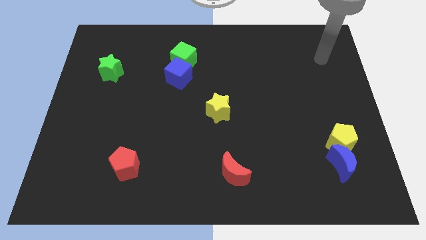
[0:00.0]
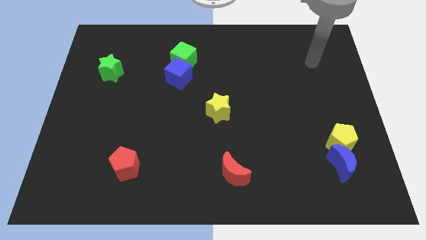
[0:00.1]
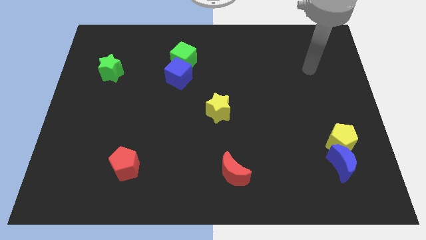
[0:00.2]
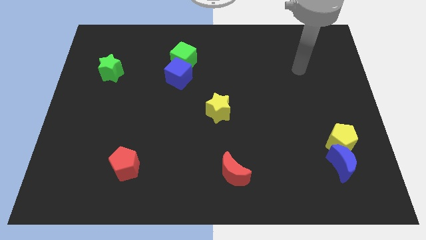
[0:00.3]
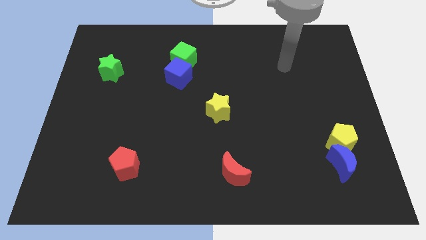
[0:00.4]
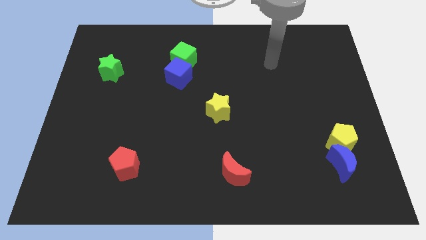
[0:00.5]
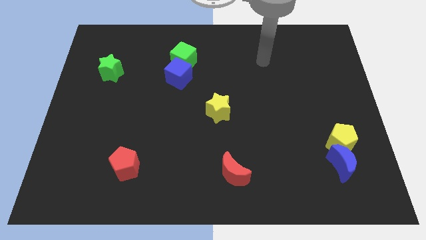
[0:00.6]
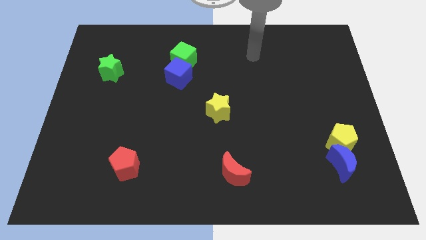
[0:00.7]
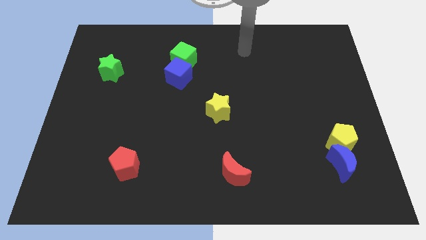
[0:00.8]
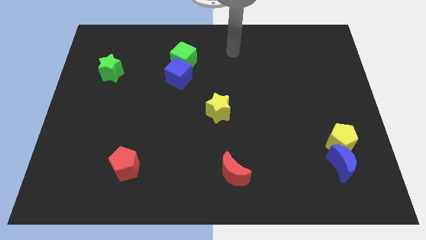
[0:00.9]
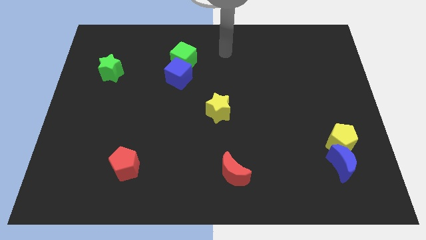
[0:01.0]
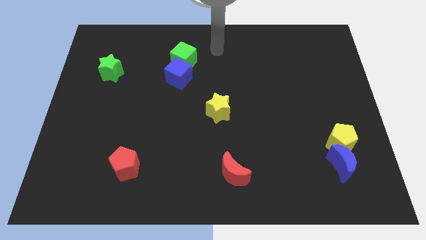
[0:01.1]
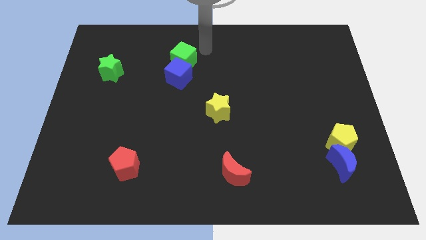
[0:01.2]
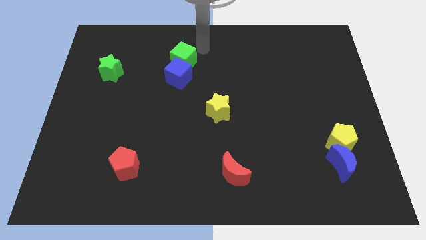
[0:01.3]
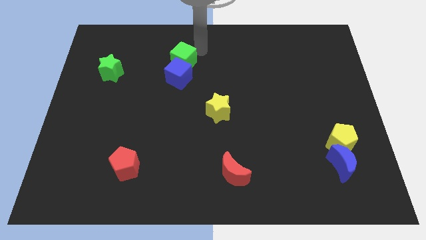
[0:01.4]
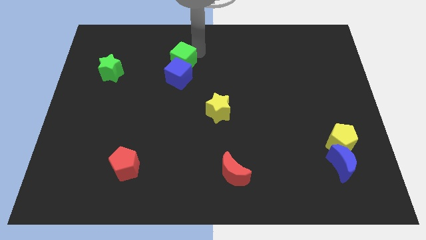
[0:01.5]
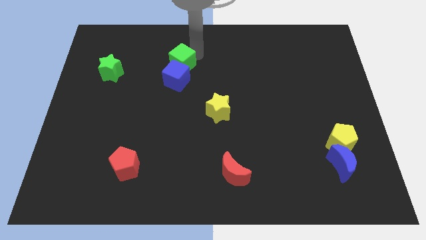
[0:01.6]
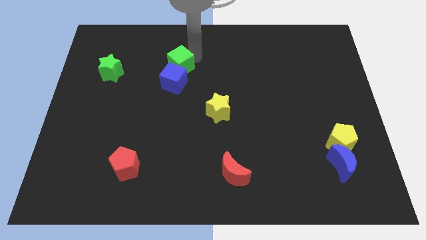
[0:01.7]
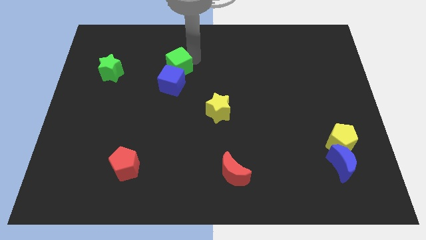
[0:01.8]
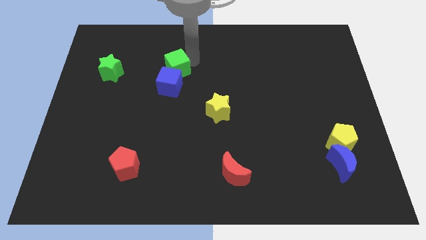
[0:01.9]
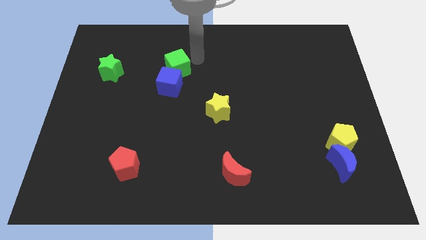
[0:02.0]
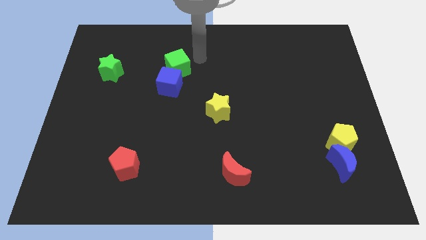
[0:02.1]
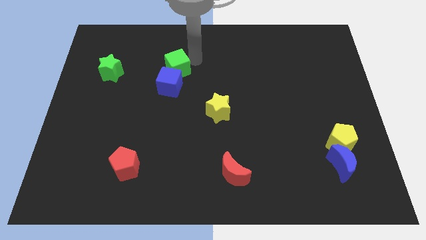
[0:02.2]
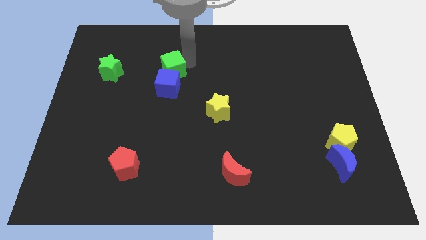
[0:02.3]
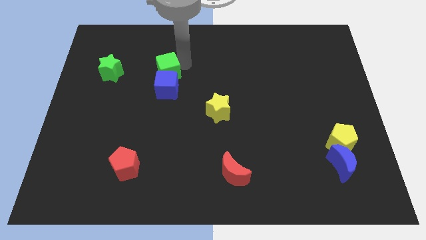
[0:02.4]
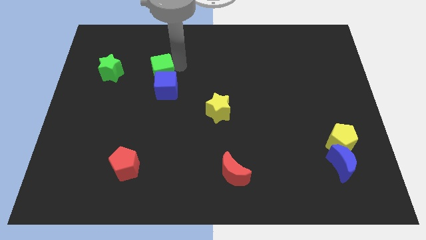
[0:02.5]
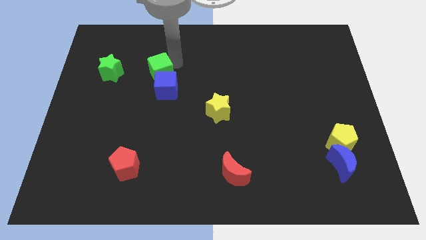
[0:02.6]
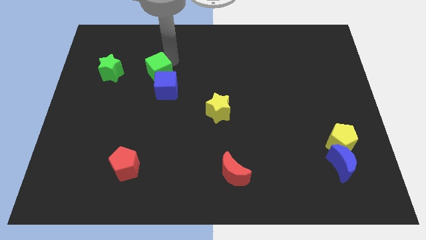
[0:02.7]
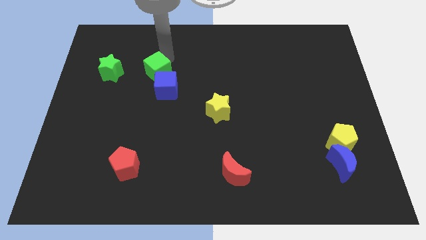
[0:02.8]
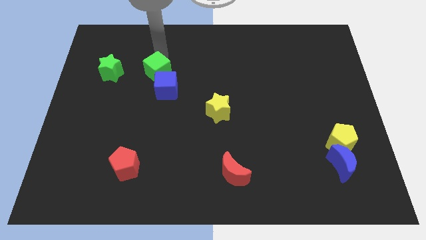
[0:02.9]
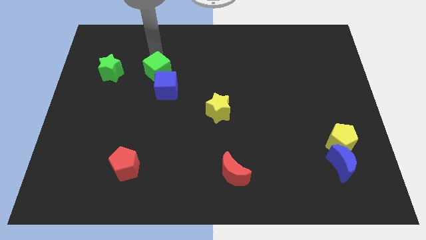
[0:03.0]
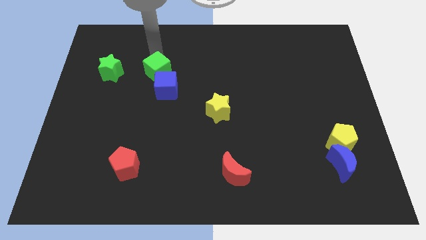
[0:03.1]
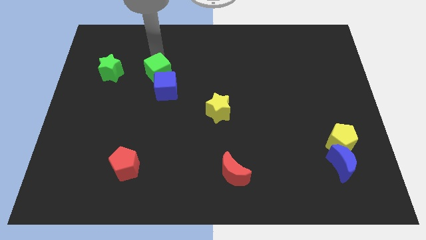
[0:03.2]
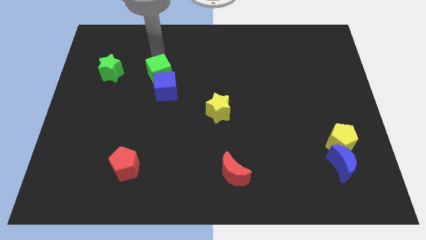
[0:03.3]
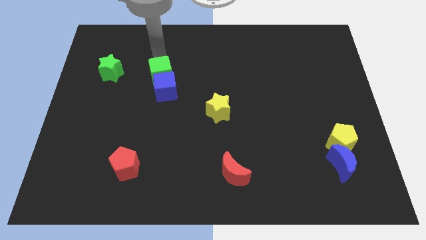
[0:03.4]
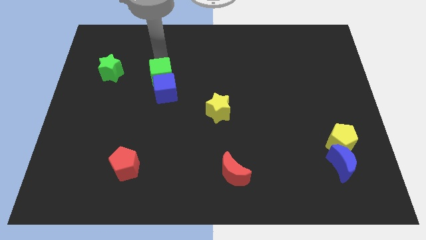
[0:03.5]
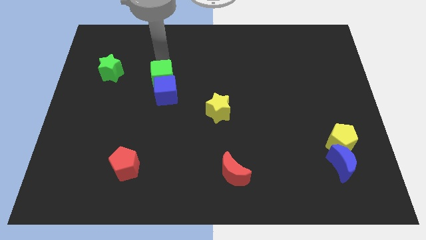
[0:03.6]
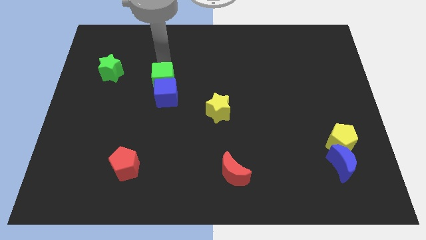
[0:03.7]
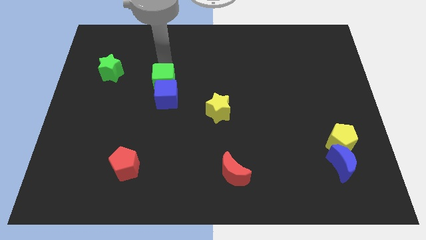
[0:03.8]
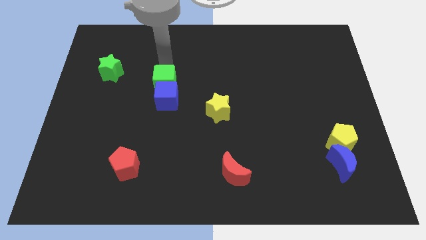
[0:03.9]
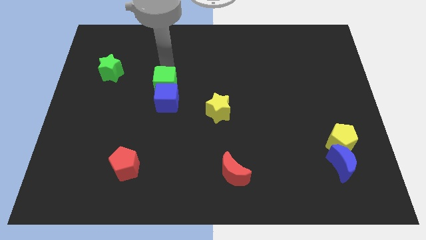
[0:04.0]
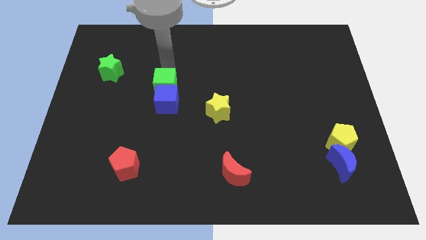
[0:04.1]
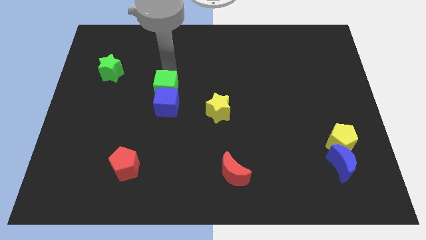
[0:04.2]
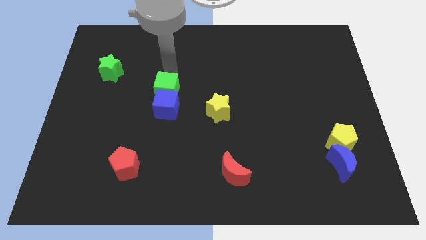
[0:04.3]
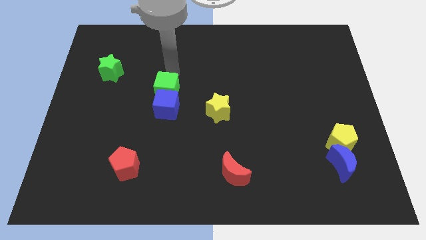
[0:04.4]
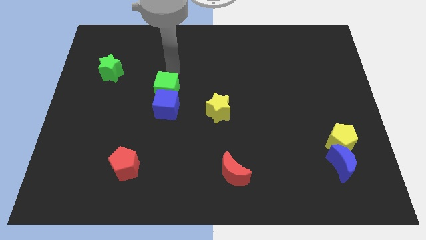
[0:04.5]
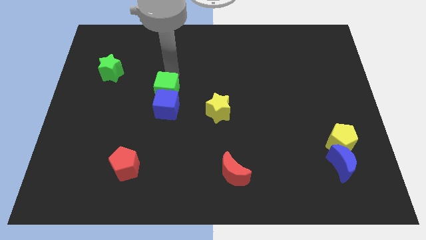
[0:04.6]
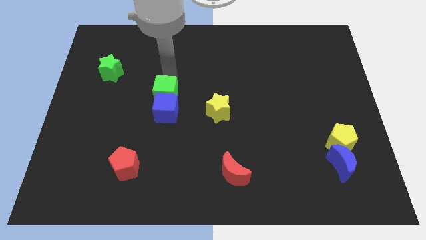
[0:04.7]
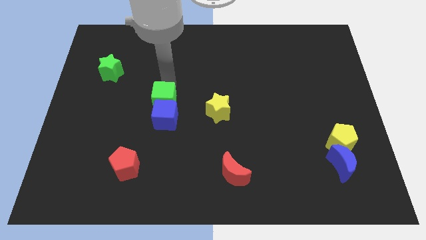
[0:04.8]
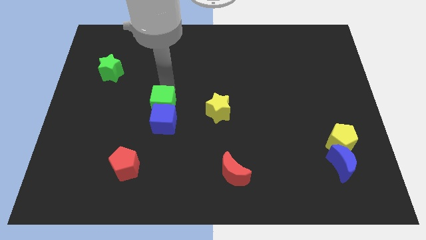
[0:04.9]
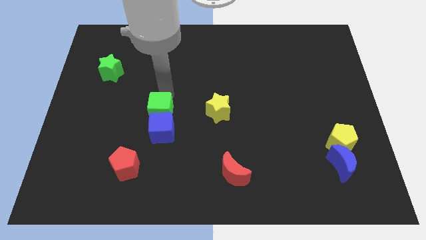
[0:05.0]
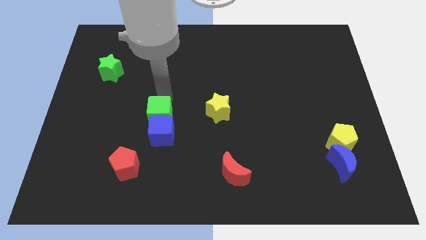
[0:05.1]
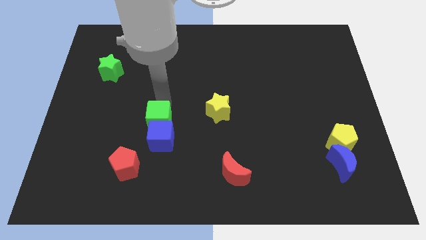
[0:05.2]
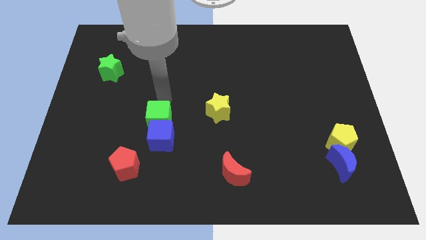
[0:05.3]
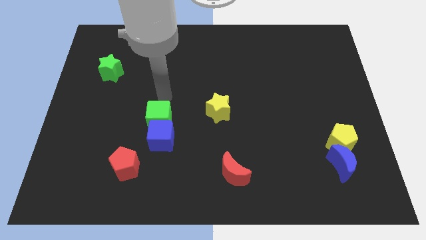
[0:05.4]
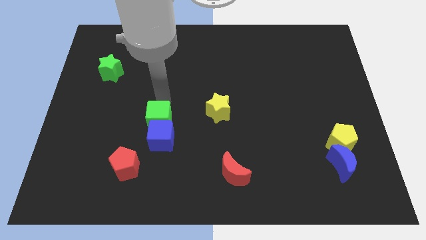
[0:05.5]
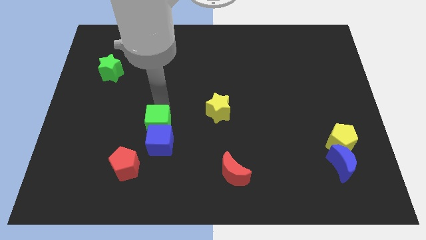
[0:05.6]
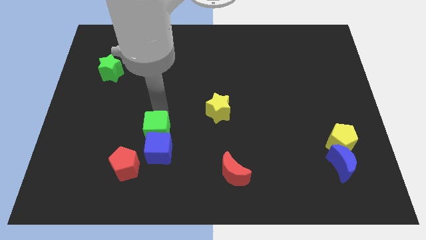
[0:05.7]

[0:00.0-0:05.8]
push the green cube to the top right side of the red pentagon
